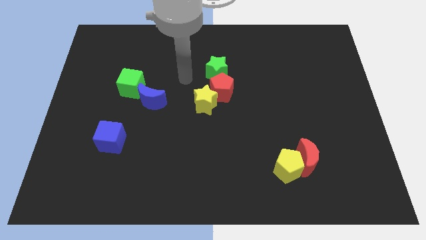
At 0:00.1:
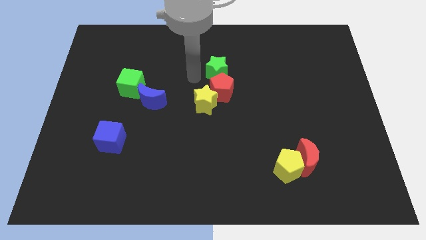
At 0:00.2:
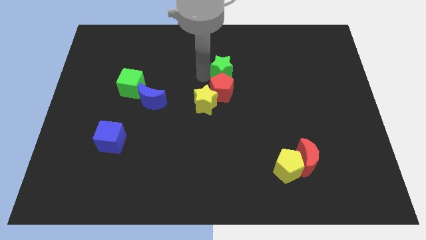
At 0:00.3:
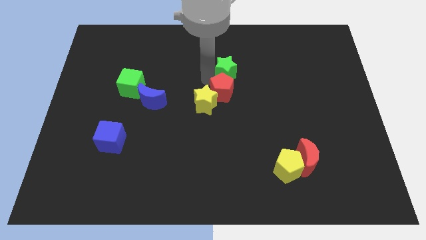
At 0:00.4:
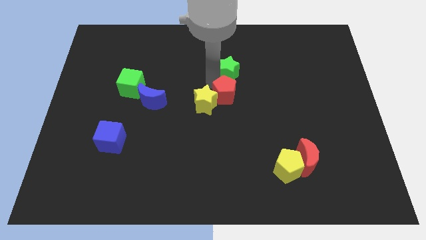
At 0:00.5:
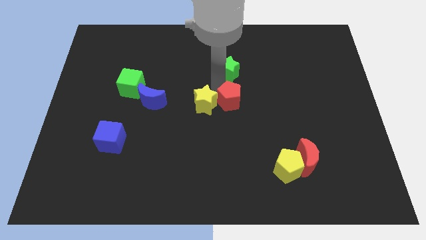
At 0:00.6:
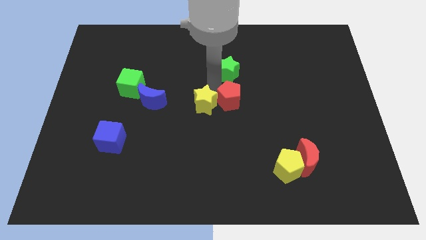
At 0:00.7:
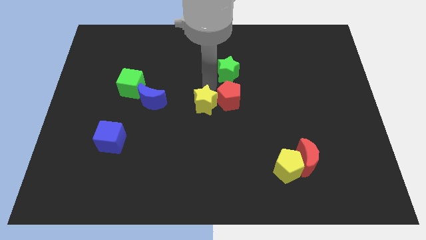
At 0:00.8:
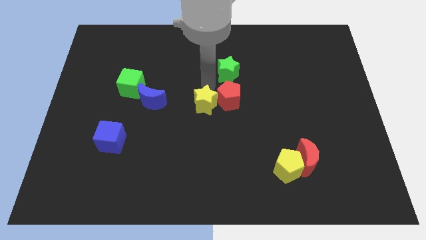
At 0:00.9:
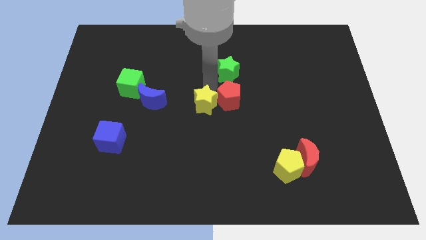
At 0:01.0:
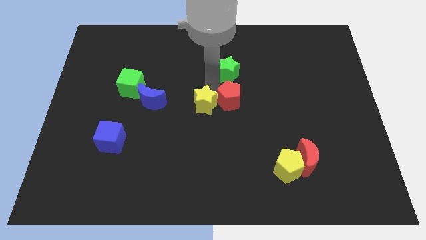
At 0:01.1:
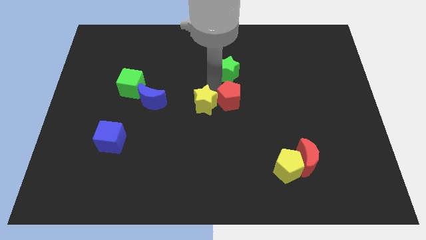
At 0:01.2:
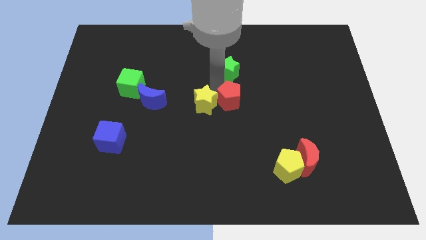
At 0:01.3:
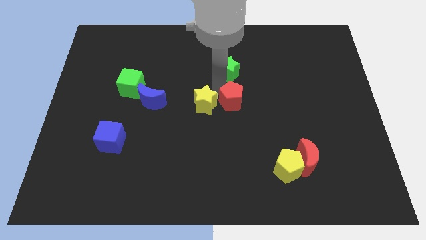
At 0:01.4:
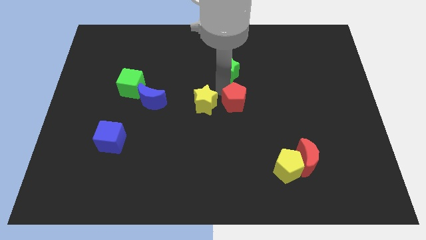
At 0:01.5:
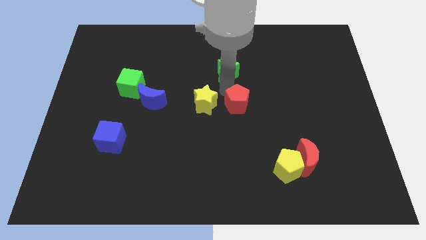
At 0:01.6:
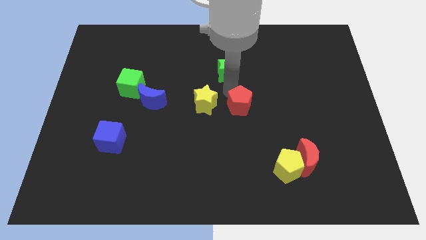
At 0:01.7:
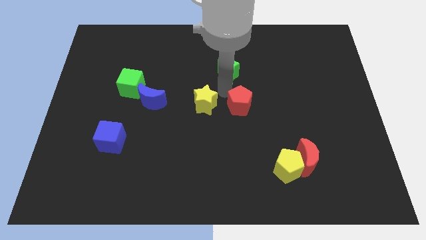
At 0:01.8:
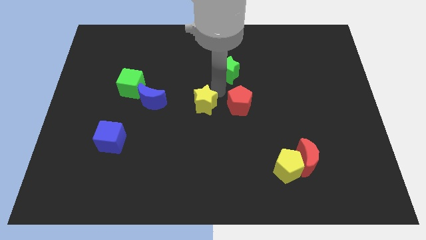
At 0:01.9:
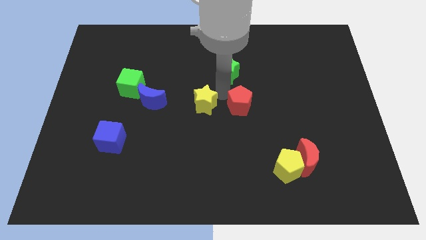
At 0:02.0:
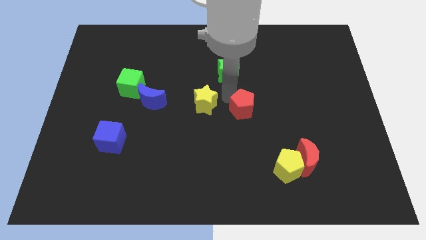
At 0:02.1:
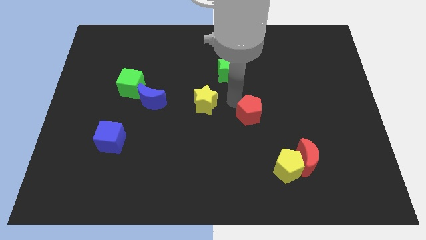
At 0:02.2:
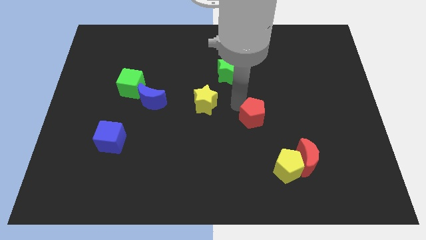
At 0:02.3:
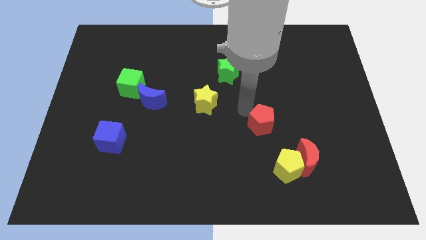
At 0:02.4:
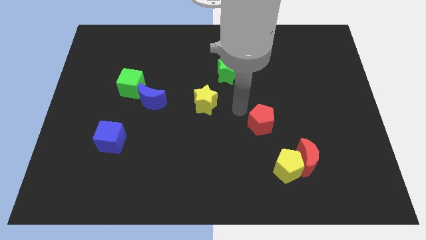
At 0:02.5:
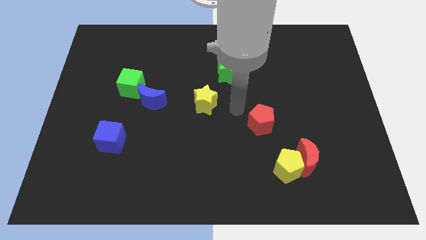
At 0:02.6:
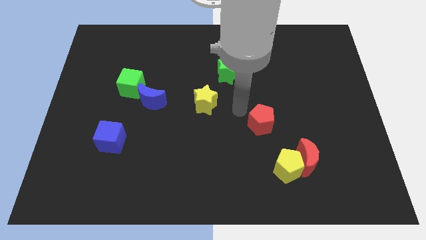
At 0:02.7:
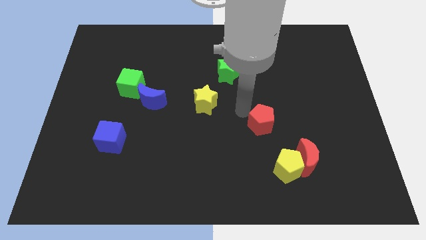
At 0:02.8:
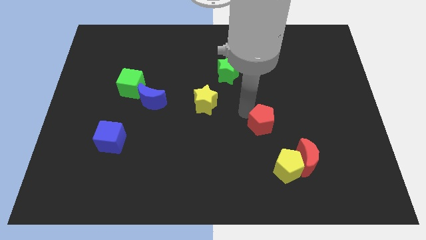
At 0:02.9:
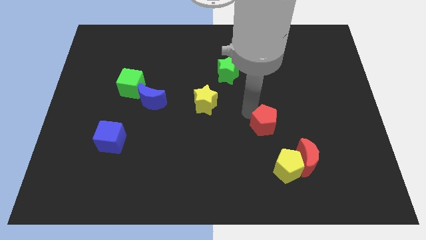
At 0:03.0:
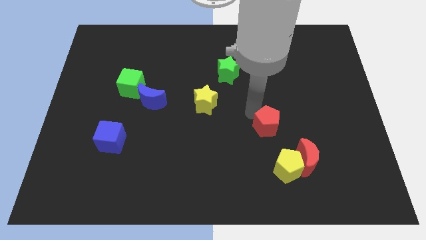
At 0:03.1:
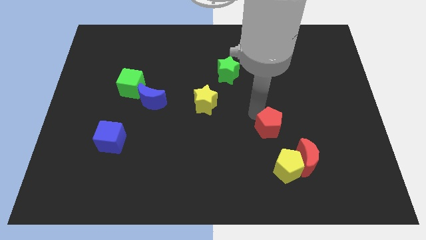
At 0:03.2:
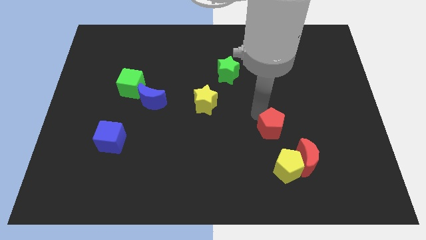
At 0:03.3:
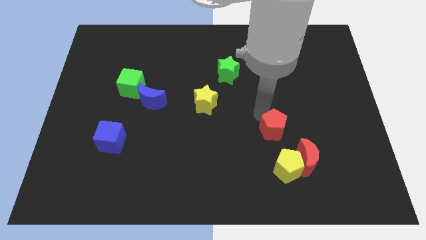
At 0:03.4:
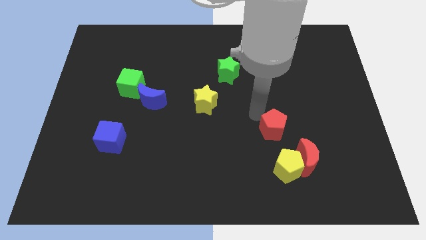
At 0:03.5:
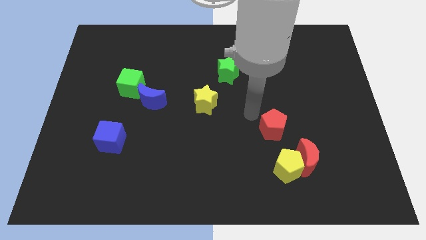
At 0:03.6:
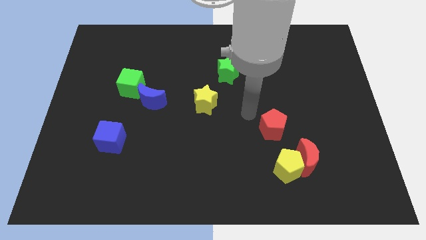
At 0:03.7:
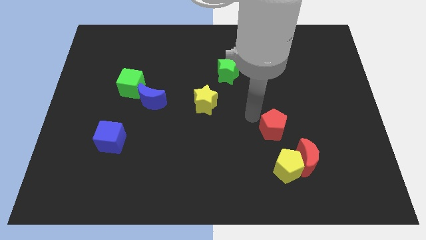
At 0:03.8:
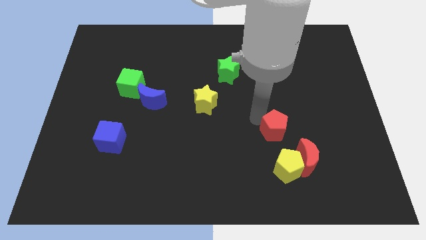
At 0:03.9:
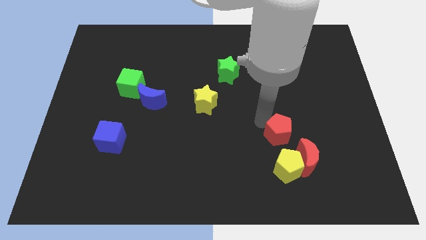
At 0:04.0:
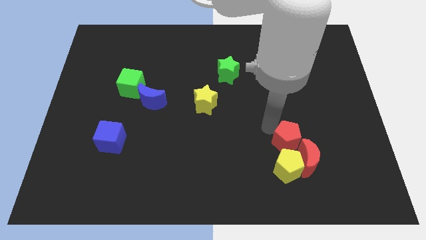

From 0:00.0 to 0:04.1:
move the red pentagon downwards and right diagonally

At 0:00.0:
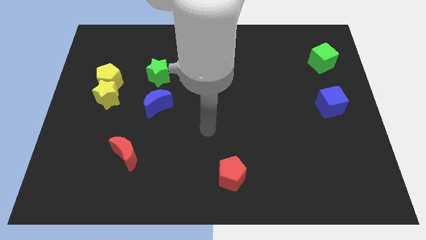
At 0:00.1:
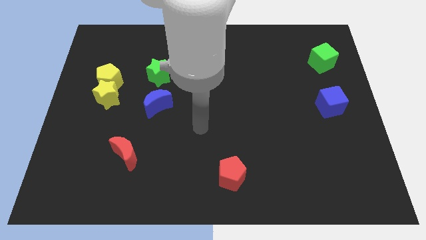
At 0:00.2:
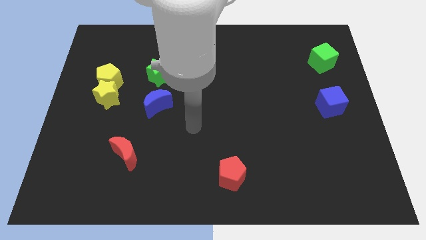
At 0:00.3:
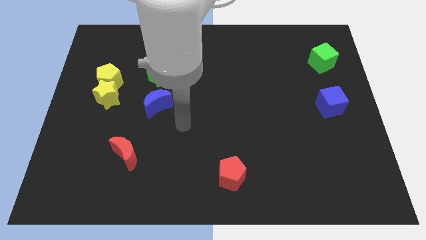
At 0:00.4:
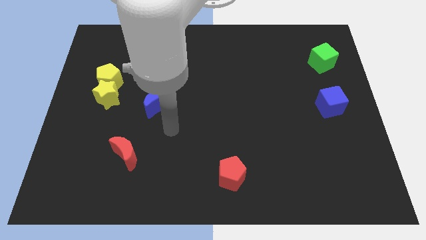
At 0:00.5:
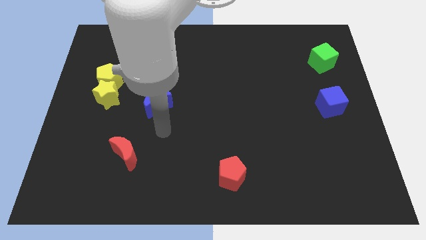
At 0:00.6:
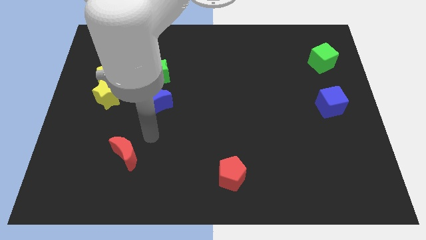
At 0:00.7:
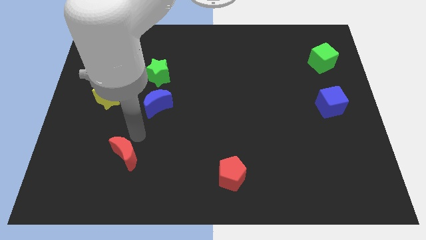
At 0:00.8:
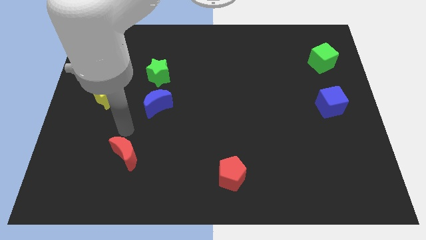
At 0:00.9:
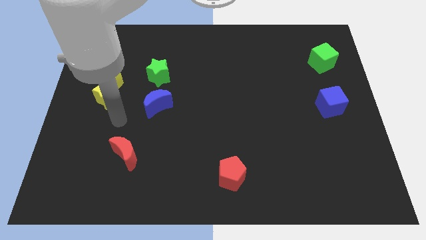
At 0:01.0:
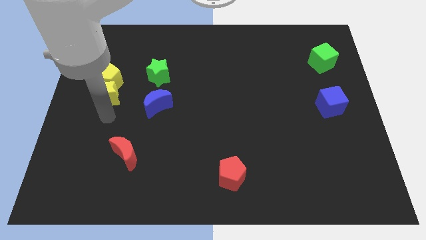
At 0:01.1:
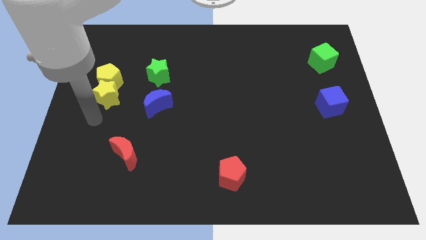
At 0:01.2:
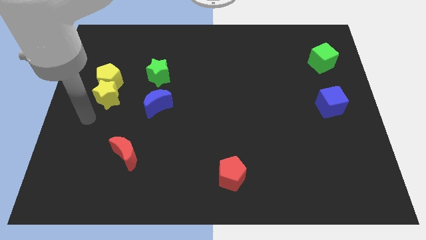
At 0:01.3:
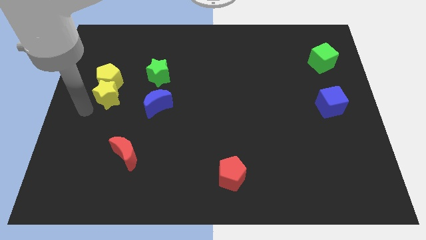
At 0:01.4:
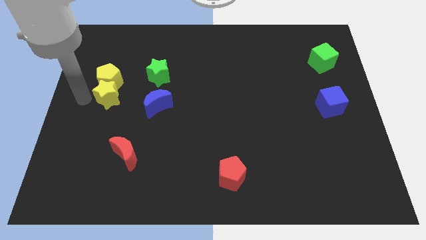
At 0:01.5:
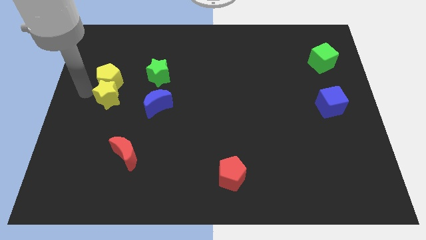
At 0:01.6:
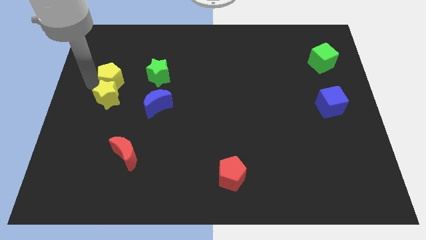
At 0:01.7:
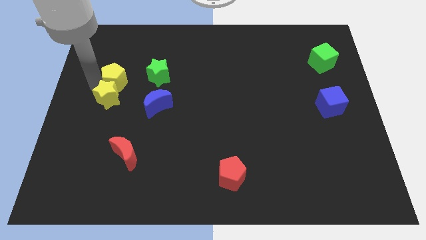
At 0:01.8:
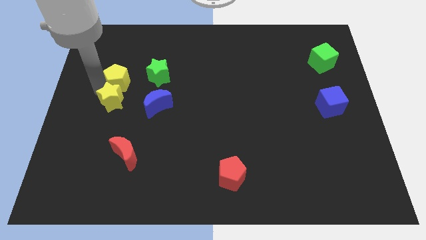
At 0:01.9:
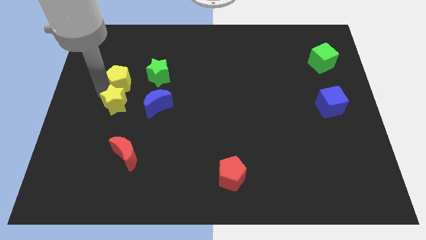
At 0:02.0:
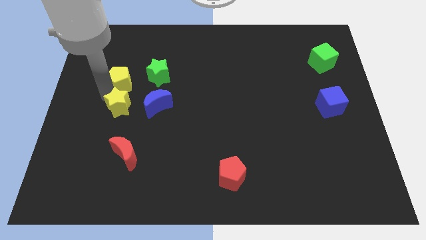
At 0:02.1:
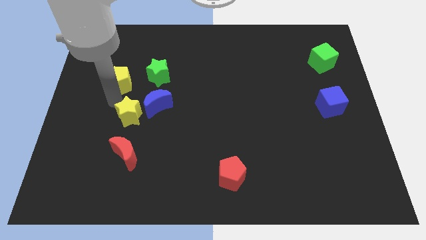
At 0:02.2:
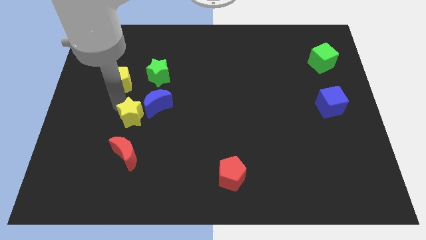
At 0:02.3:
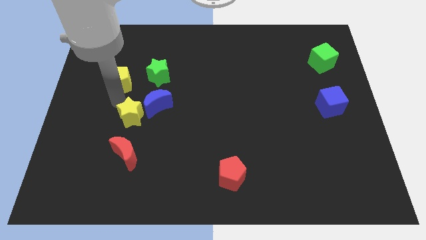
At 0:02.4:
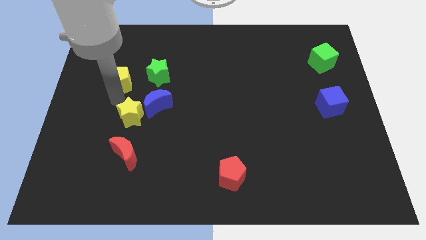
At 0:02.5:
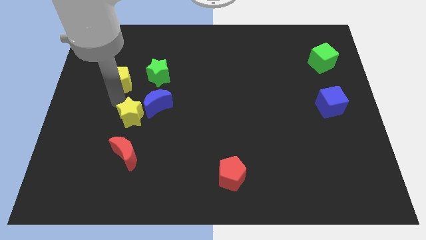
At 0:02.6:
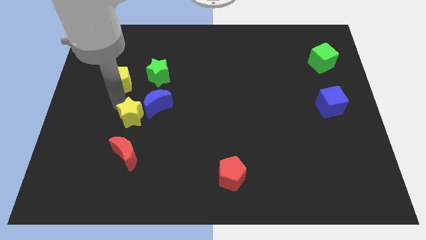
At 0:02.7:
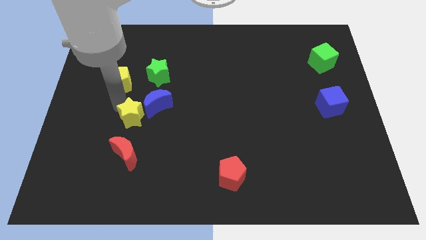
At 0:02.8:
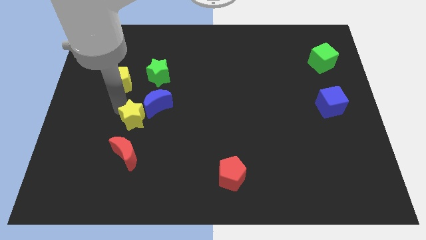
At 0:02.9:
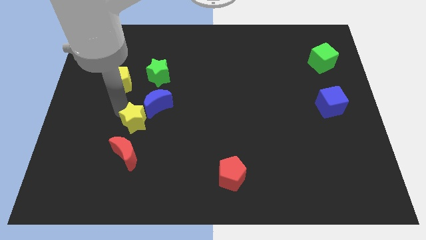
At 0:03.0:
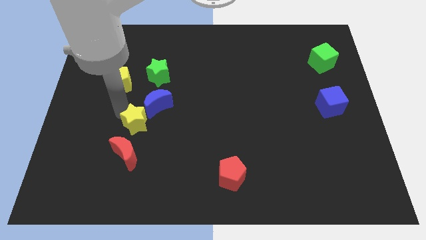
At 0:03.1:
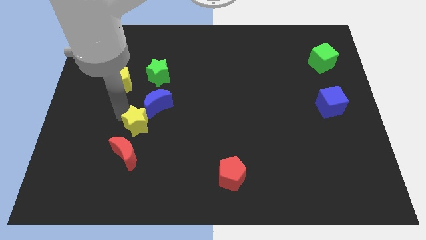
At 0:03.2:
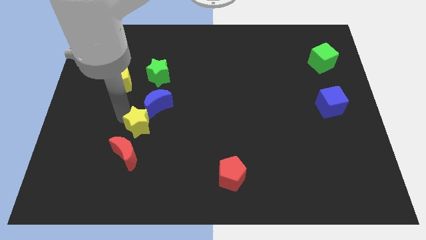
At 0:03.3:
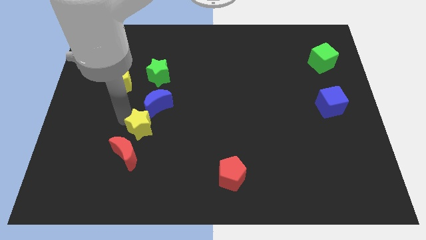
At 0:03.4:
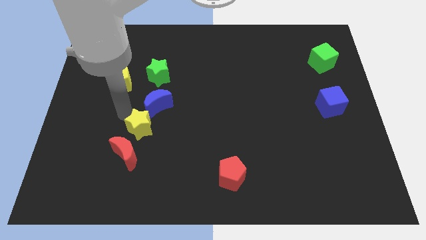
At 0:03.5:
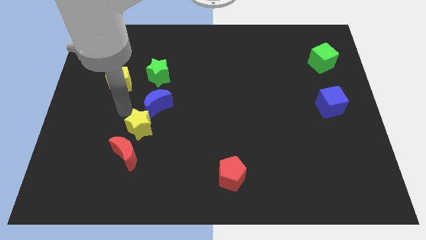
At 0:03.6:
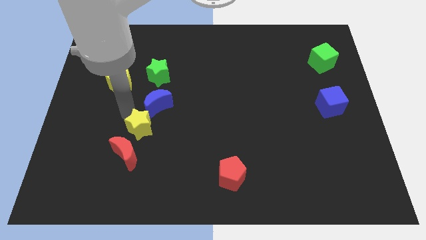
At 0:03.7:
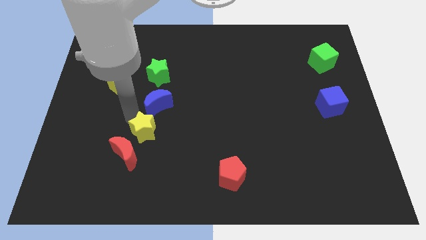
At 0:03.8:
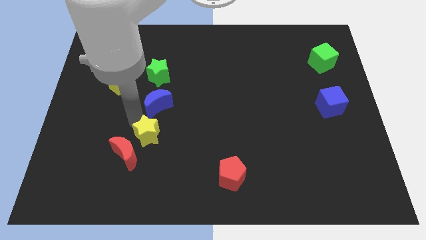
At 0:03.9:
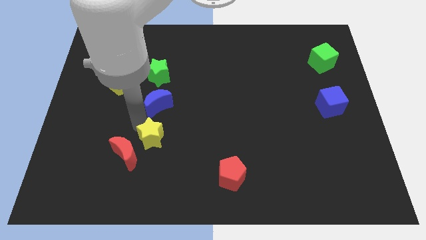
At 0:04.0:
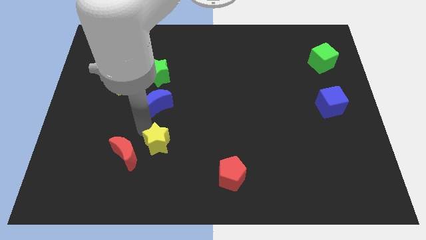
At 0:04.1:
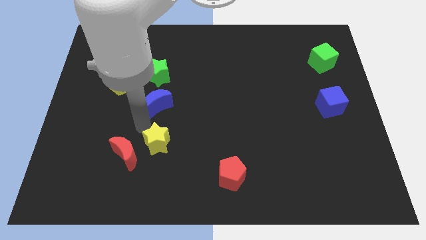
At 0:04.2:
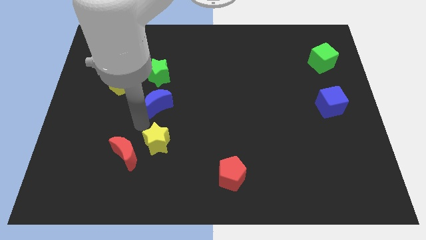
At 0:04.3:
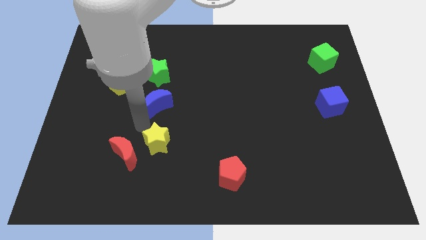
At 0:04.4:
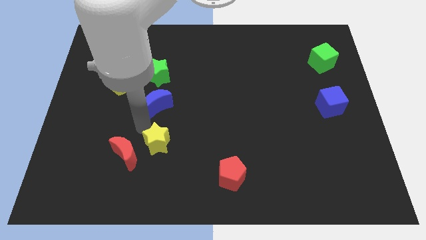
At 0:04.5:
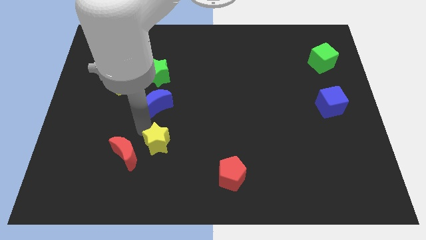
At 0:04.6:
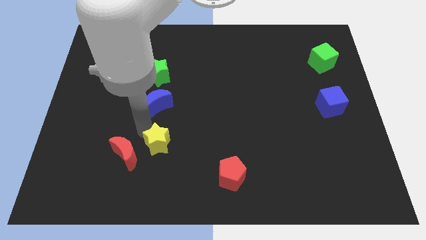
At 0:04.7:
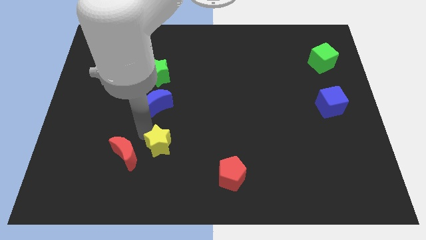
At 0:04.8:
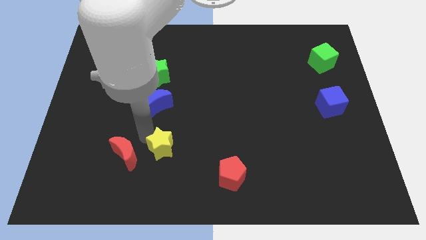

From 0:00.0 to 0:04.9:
slide the yellow star downwards and to the right diagonally
